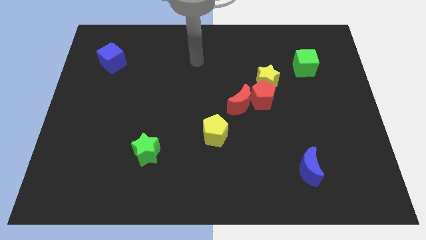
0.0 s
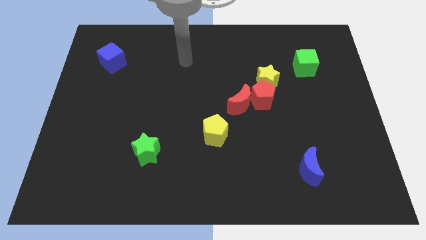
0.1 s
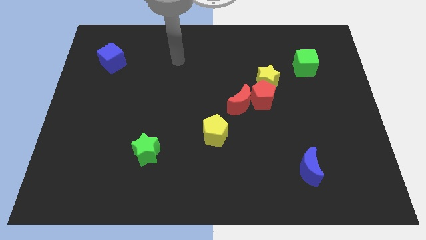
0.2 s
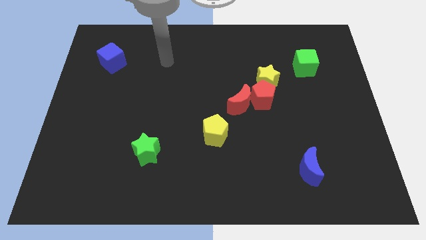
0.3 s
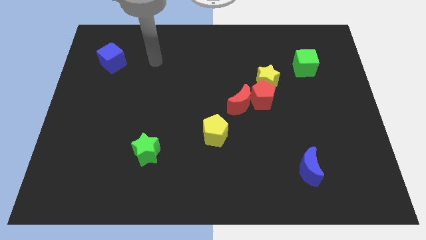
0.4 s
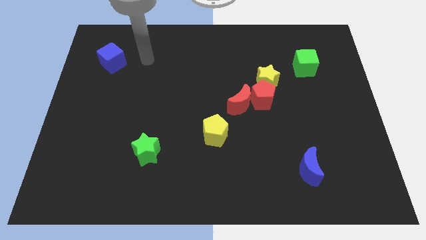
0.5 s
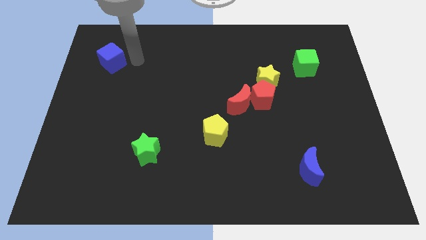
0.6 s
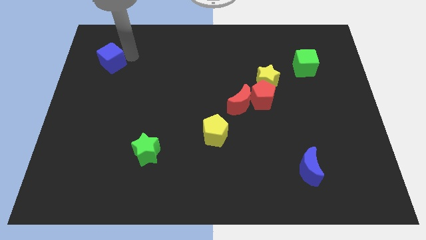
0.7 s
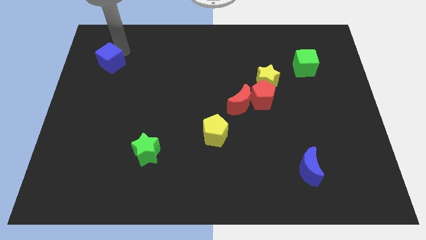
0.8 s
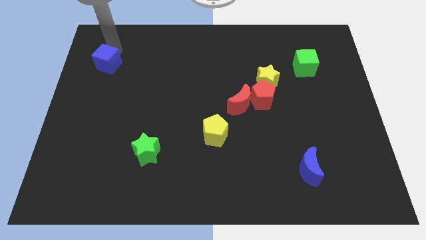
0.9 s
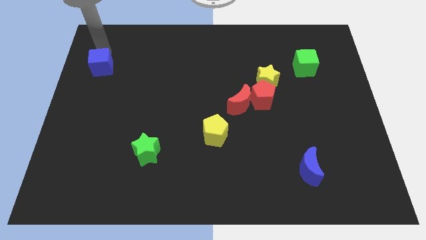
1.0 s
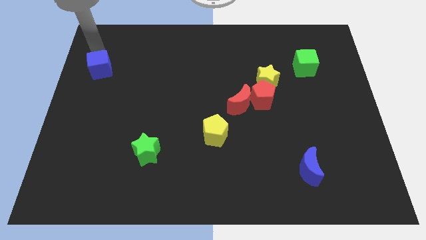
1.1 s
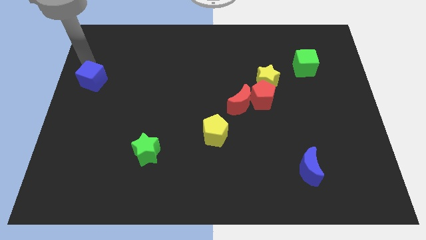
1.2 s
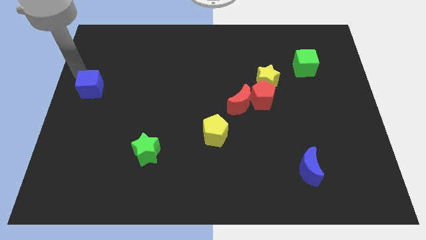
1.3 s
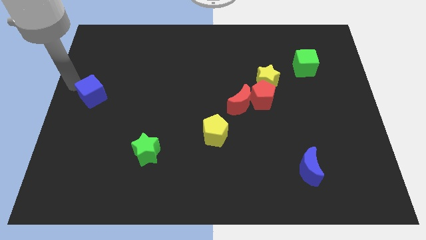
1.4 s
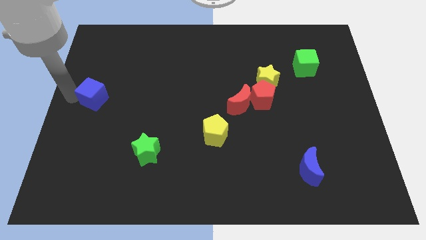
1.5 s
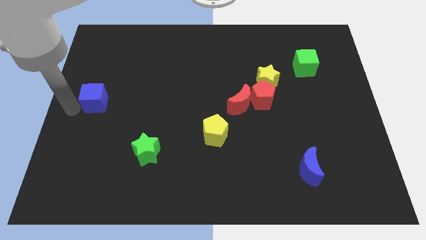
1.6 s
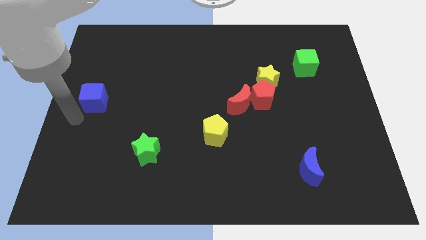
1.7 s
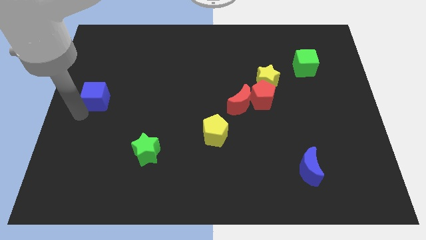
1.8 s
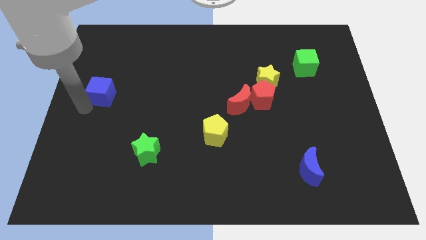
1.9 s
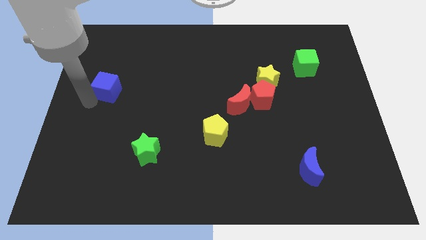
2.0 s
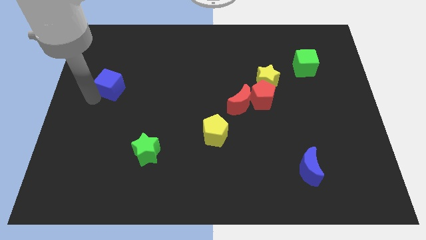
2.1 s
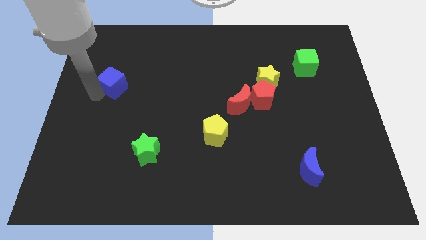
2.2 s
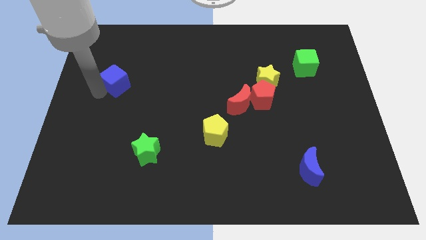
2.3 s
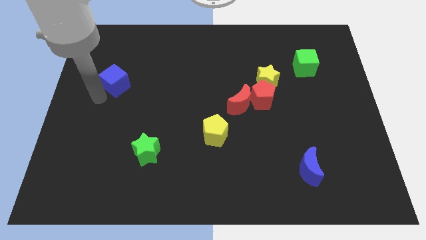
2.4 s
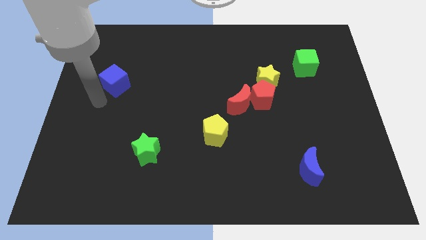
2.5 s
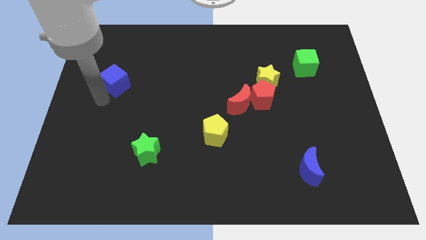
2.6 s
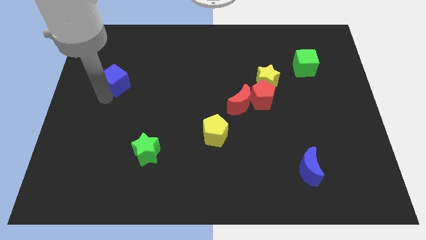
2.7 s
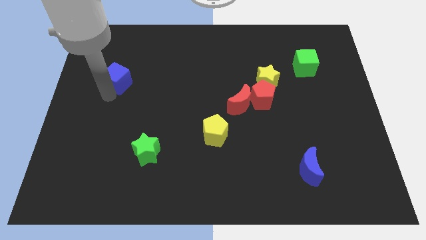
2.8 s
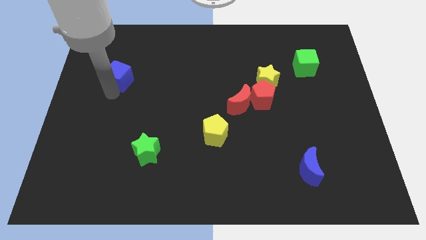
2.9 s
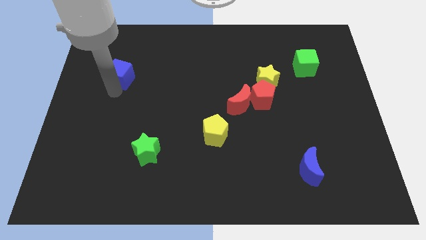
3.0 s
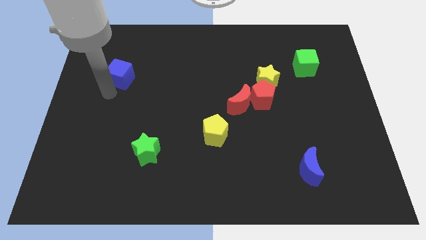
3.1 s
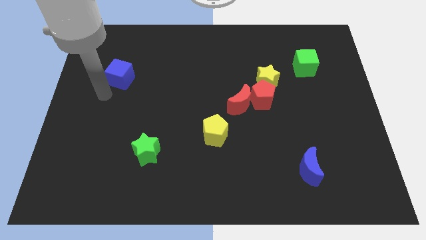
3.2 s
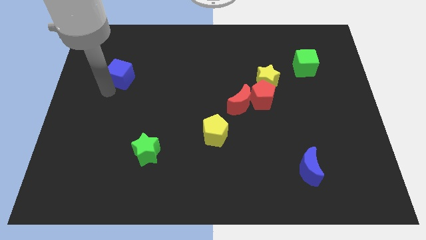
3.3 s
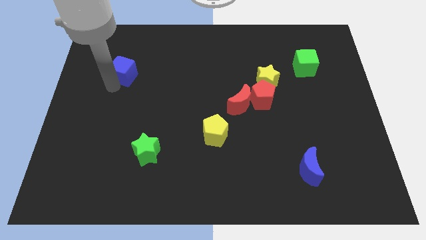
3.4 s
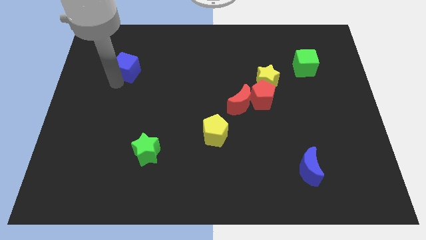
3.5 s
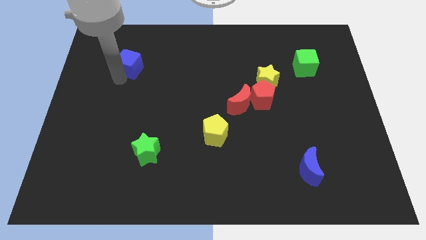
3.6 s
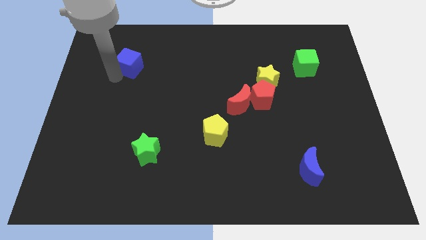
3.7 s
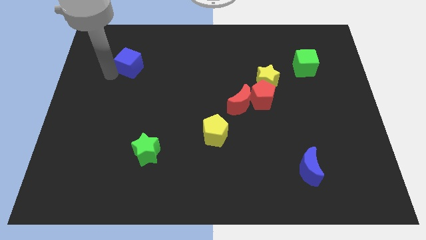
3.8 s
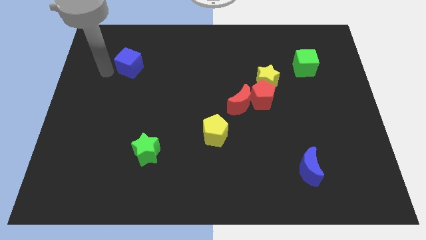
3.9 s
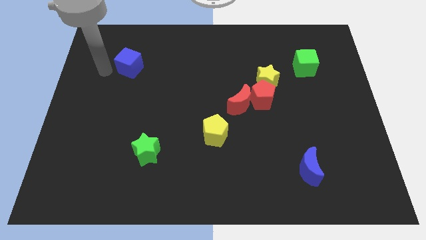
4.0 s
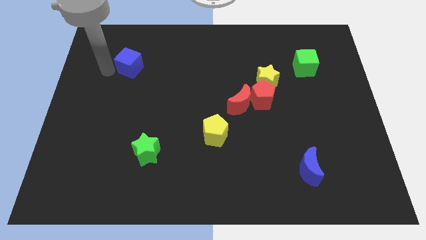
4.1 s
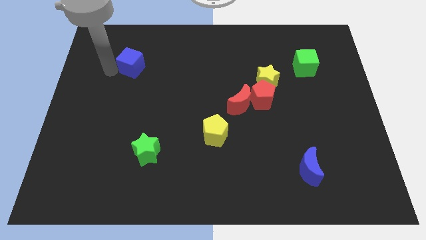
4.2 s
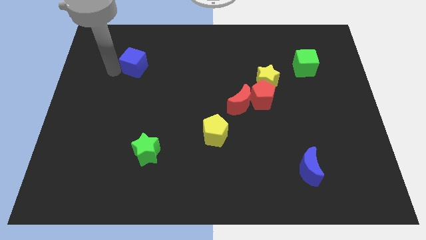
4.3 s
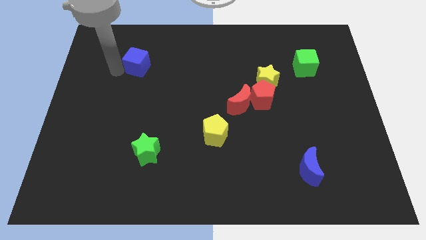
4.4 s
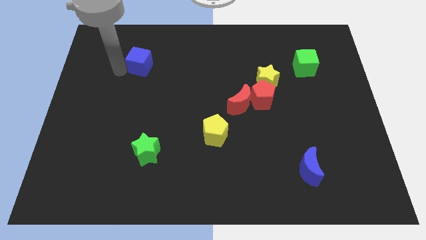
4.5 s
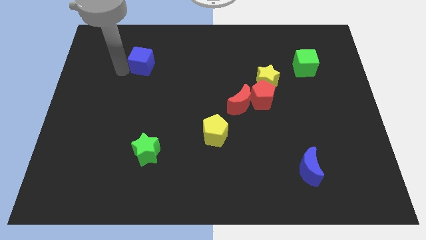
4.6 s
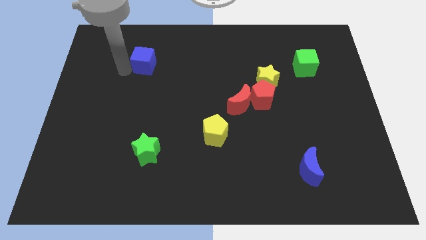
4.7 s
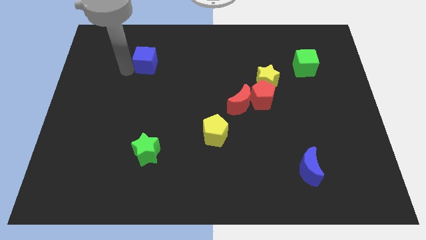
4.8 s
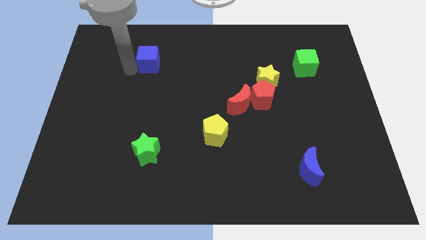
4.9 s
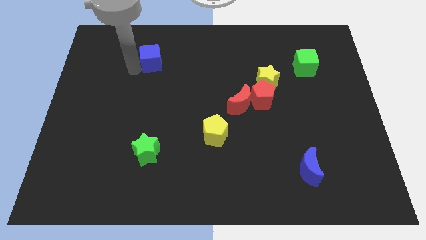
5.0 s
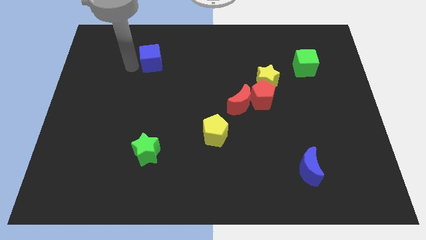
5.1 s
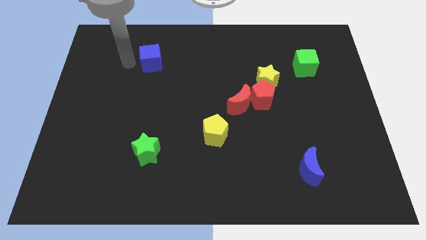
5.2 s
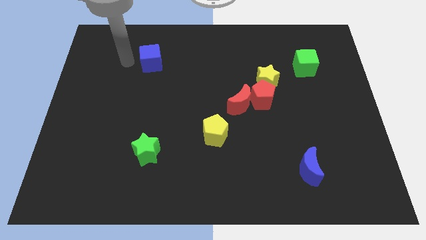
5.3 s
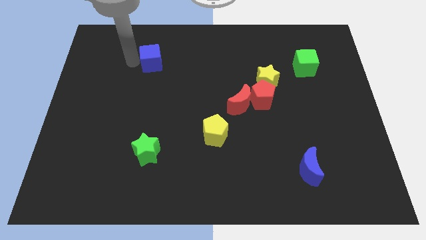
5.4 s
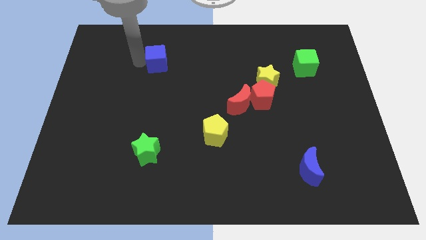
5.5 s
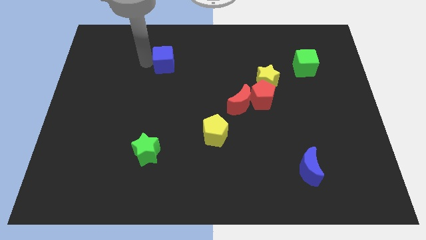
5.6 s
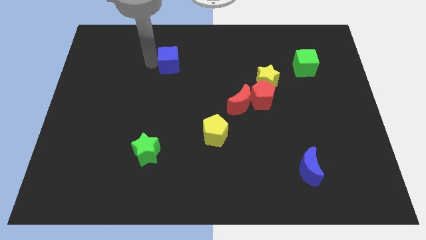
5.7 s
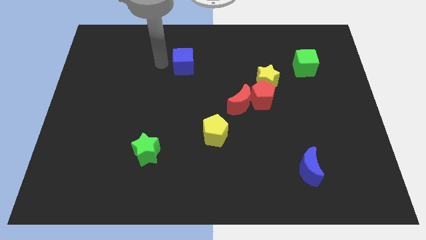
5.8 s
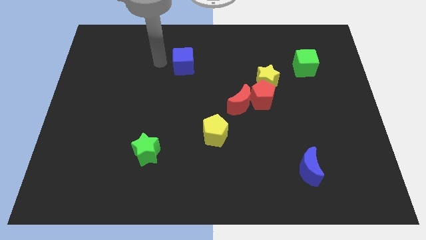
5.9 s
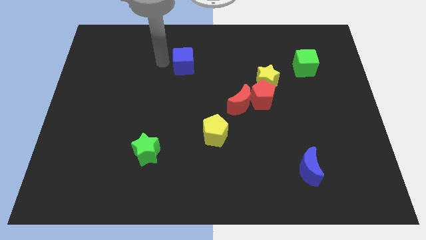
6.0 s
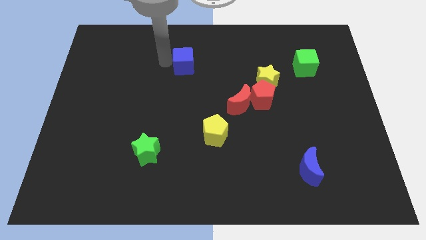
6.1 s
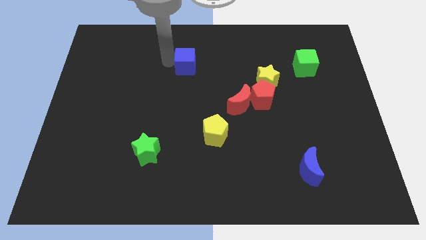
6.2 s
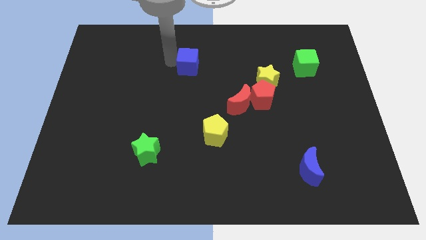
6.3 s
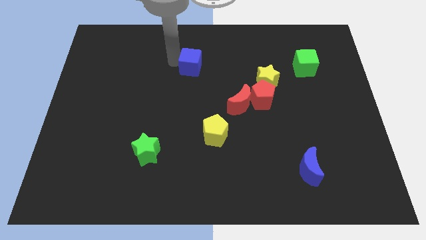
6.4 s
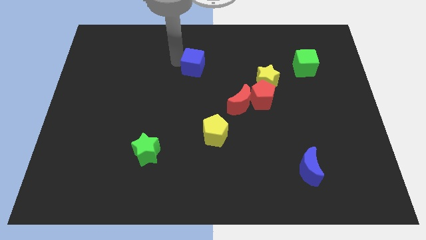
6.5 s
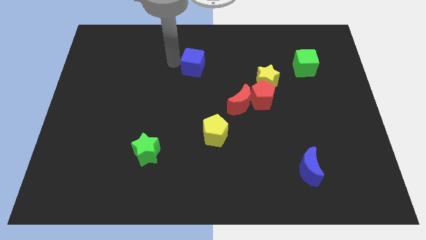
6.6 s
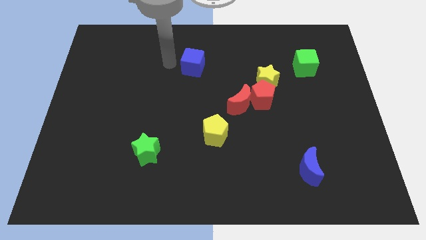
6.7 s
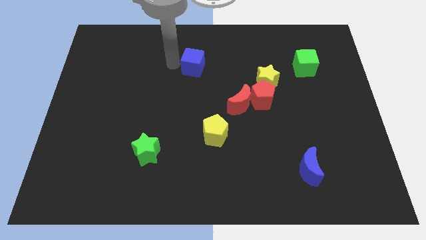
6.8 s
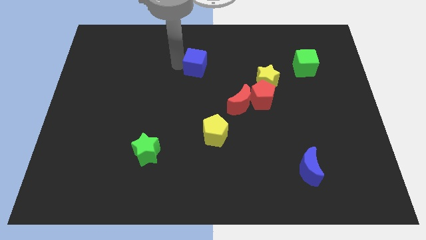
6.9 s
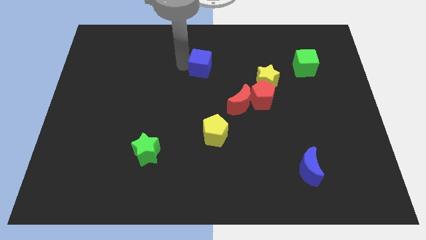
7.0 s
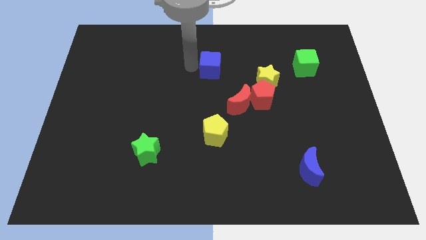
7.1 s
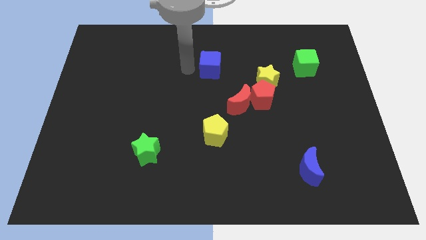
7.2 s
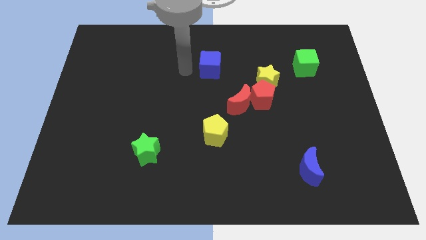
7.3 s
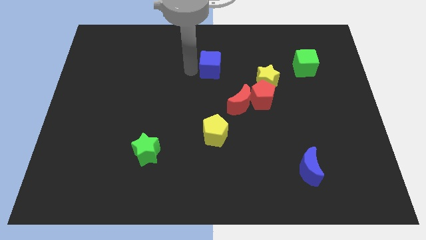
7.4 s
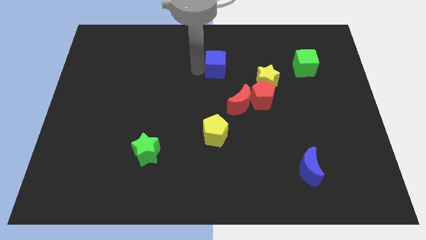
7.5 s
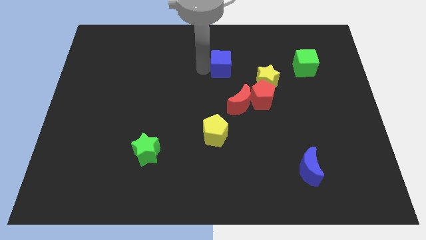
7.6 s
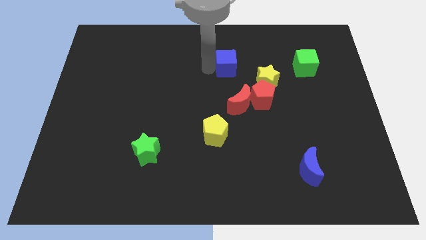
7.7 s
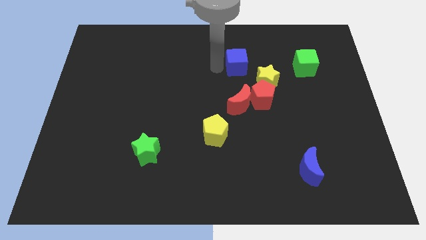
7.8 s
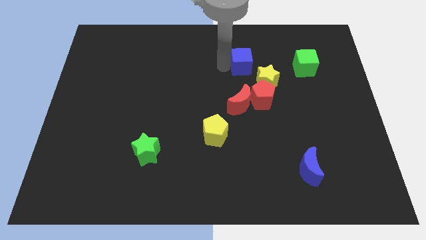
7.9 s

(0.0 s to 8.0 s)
slide the blue cube above the red pentagon
